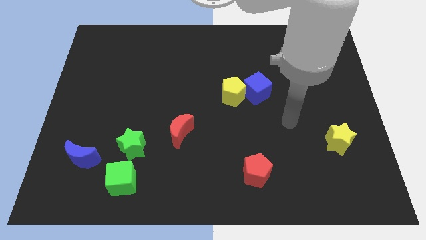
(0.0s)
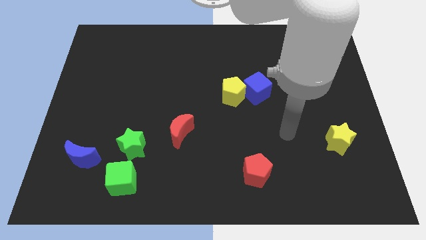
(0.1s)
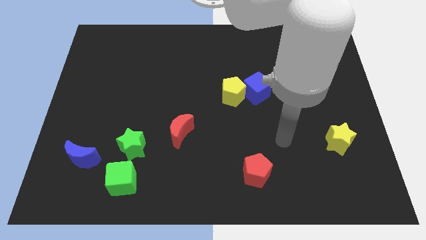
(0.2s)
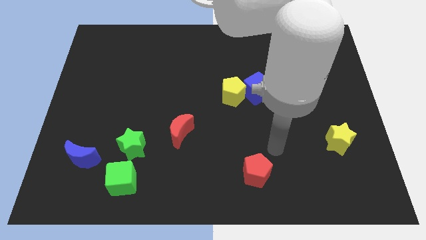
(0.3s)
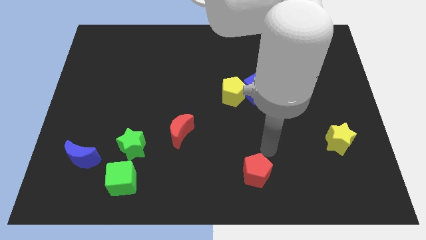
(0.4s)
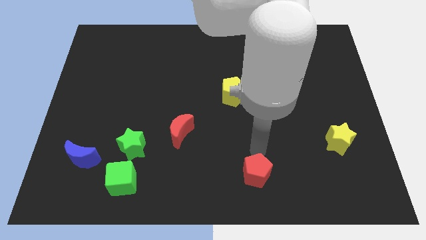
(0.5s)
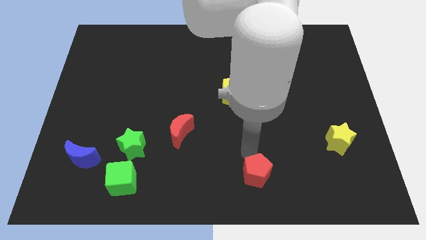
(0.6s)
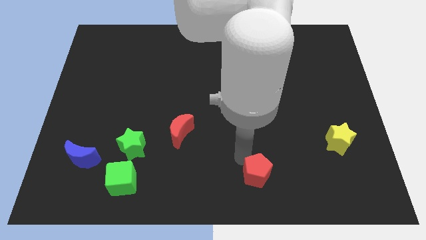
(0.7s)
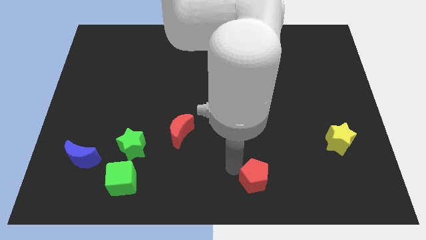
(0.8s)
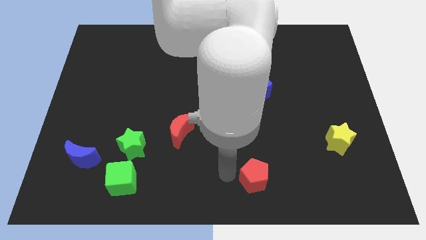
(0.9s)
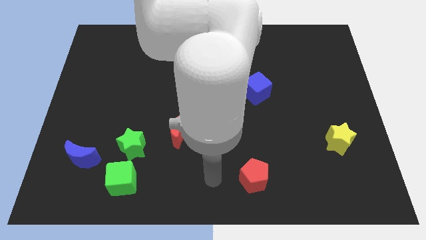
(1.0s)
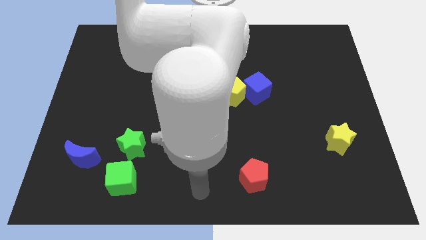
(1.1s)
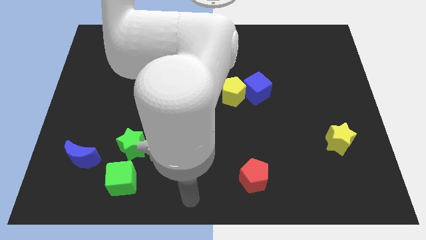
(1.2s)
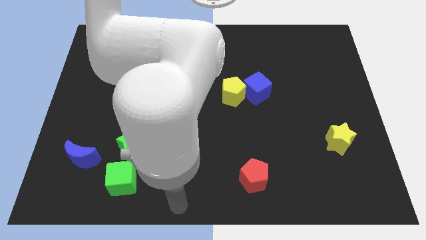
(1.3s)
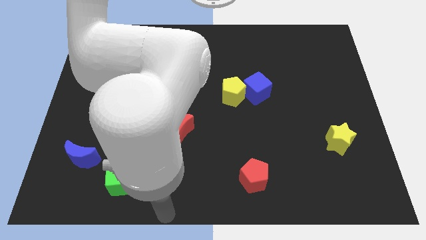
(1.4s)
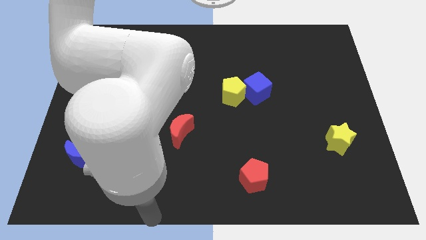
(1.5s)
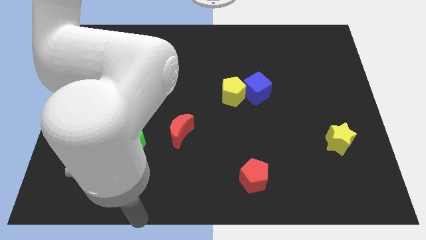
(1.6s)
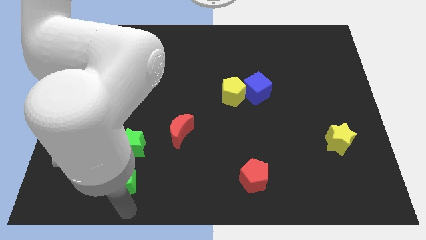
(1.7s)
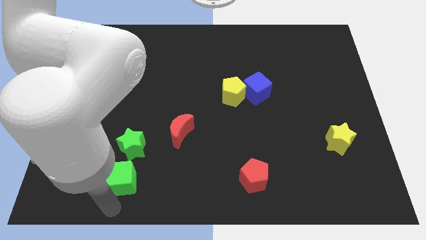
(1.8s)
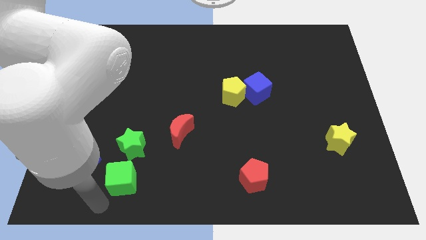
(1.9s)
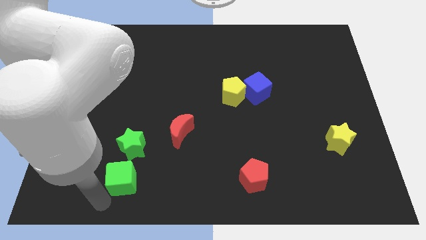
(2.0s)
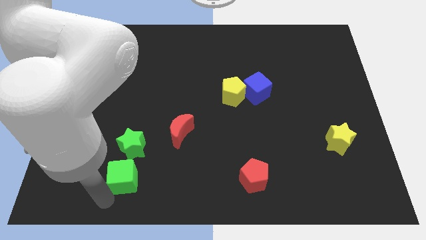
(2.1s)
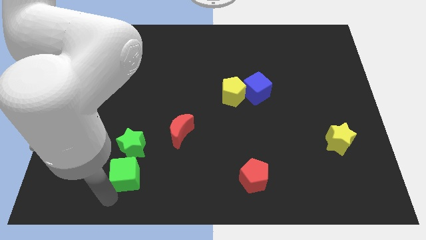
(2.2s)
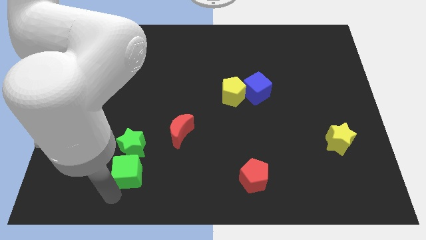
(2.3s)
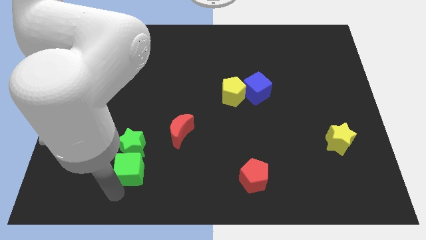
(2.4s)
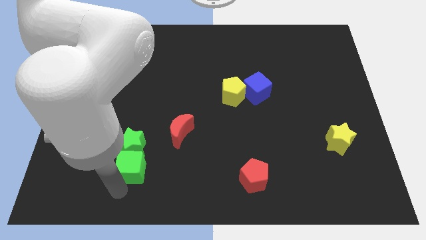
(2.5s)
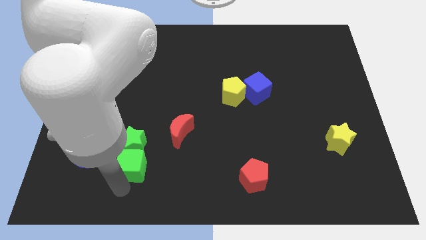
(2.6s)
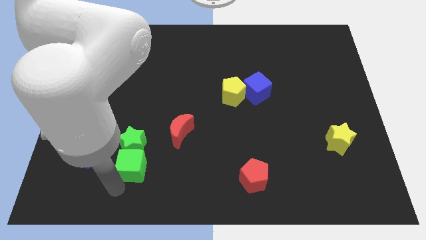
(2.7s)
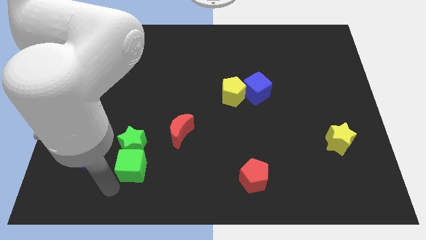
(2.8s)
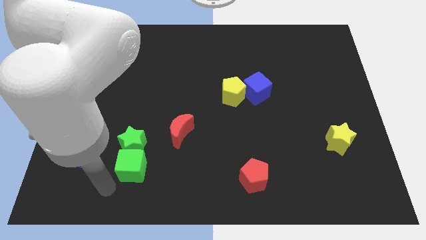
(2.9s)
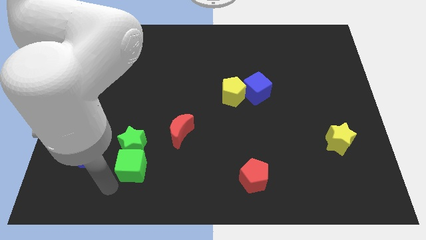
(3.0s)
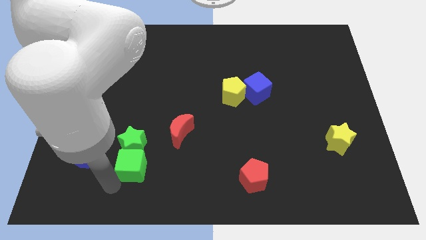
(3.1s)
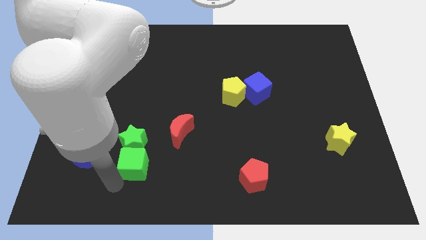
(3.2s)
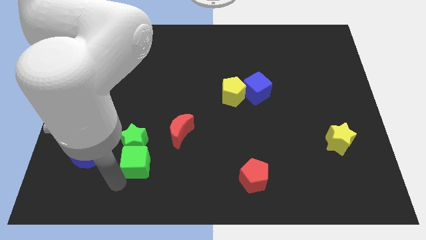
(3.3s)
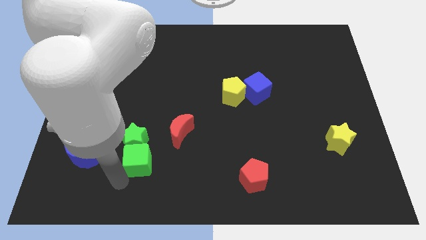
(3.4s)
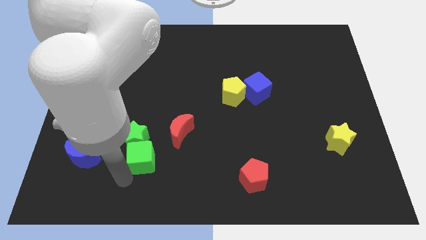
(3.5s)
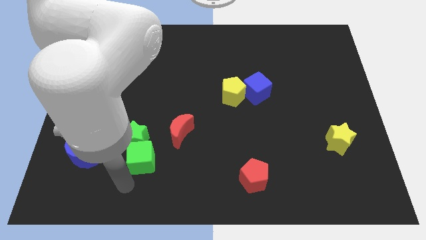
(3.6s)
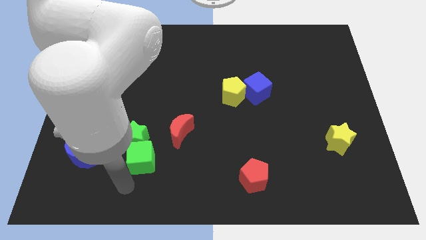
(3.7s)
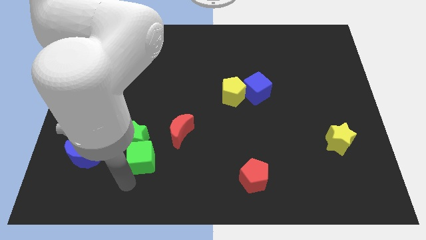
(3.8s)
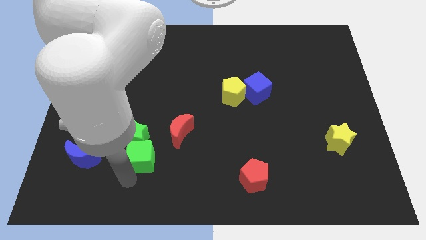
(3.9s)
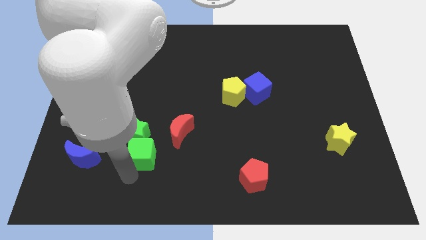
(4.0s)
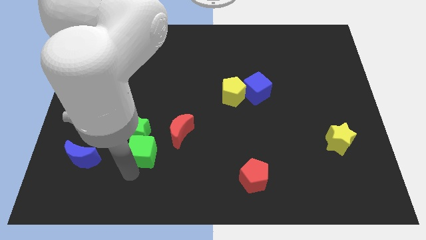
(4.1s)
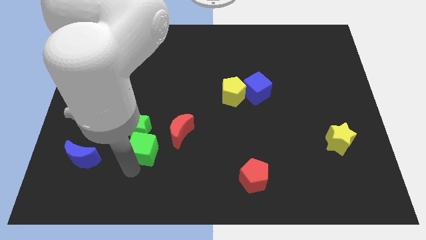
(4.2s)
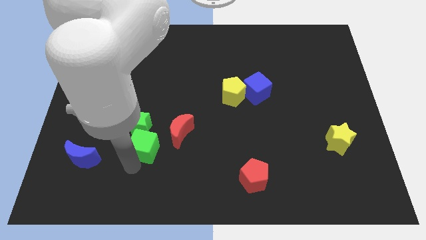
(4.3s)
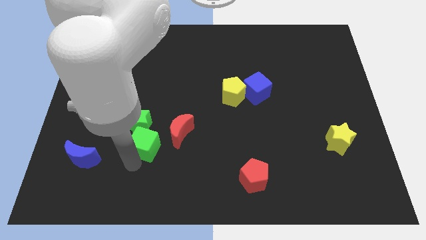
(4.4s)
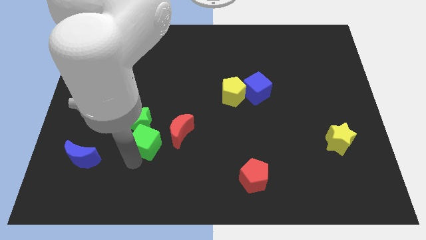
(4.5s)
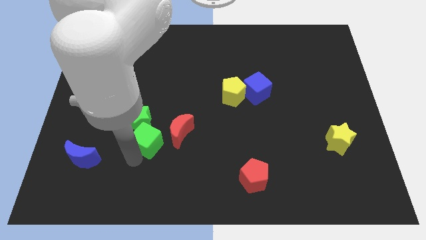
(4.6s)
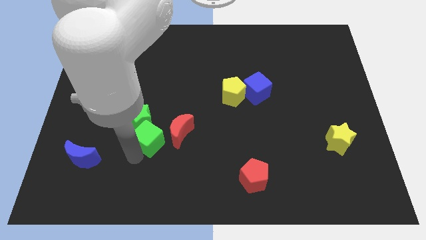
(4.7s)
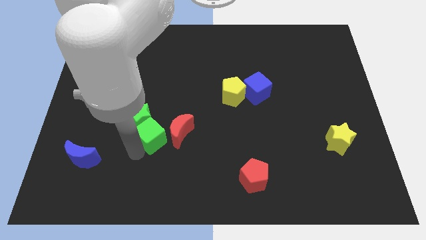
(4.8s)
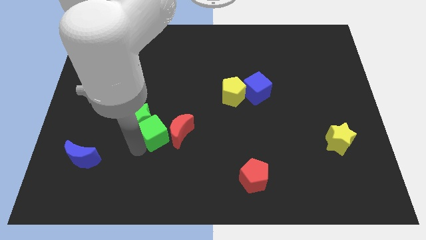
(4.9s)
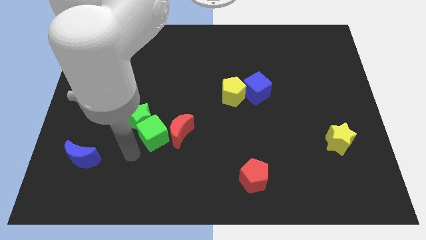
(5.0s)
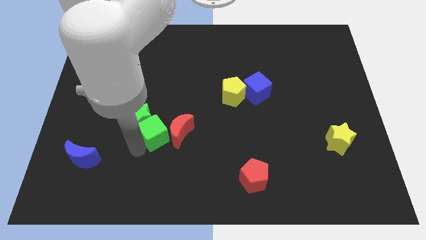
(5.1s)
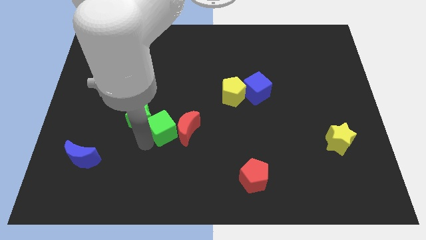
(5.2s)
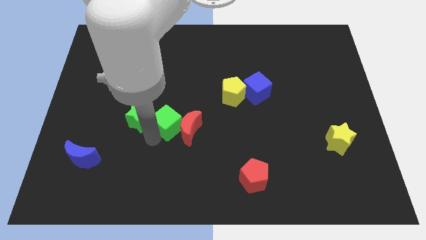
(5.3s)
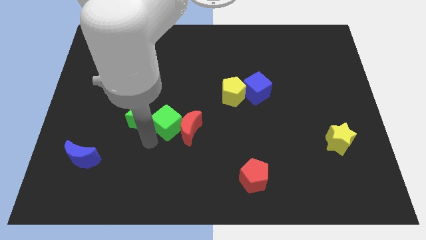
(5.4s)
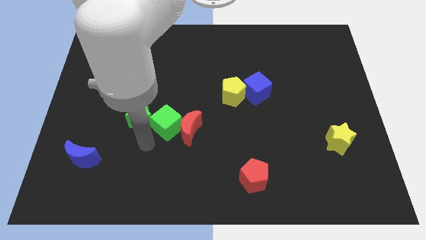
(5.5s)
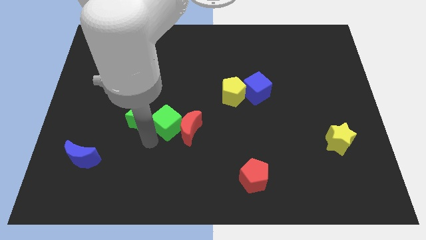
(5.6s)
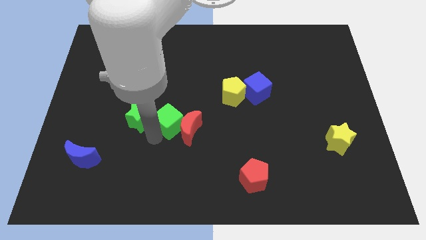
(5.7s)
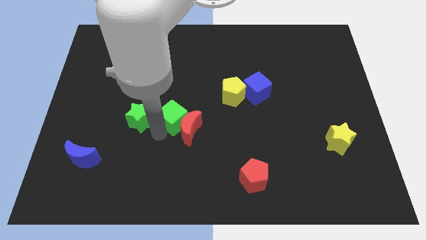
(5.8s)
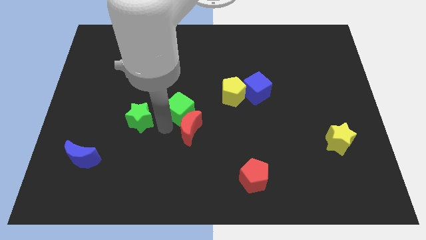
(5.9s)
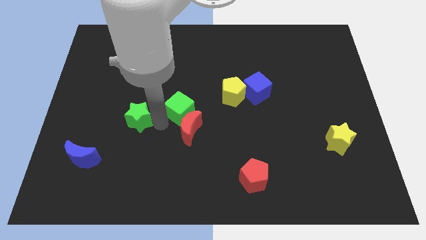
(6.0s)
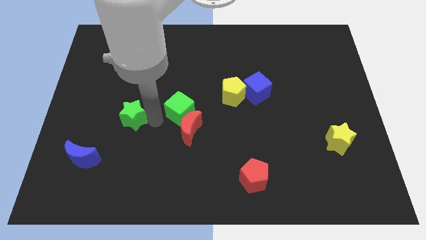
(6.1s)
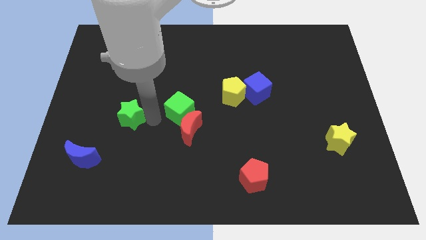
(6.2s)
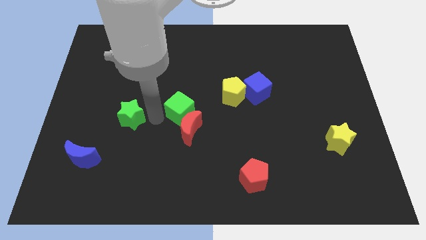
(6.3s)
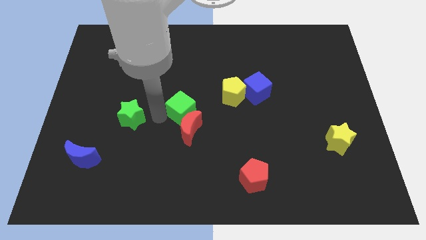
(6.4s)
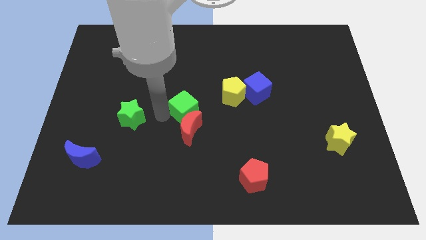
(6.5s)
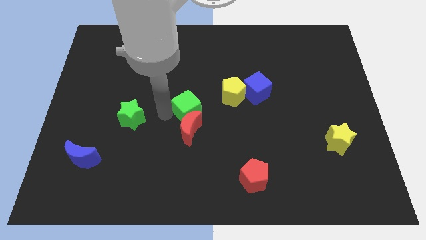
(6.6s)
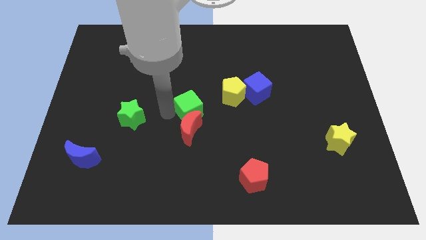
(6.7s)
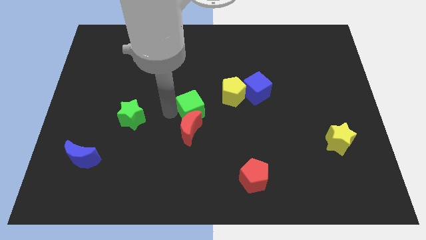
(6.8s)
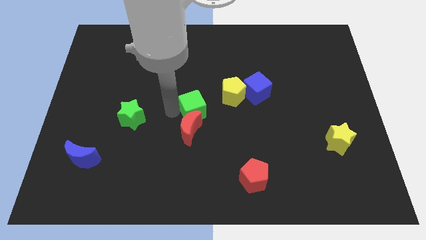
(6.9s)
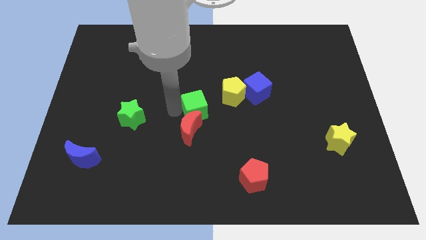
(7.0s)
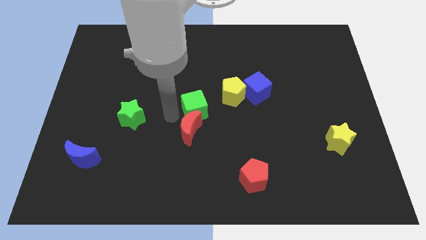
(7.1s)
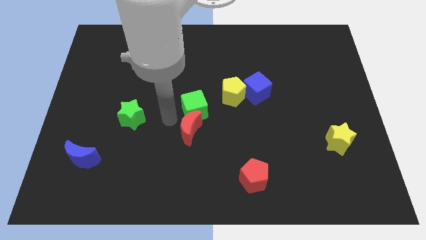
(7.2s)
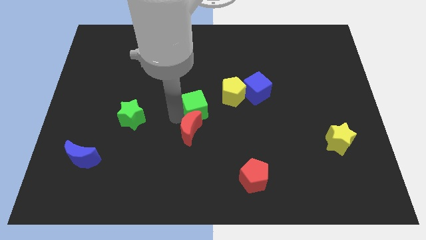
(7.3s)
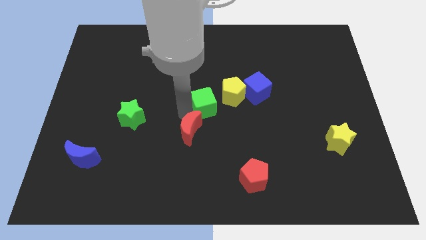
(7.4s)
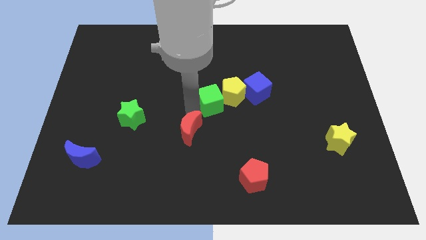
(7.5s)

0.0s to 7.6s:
put the green cube next to the yellow pentagon

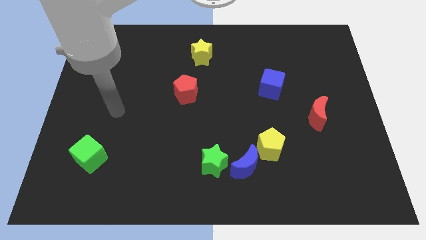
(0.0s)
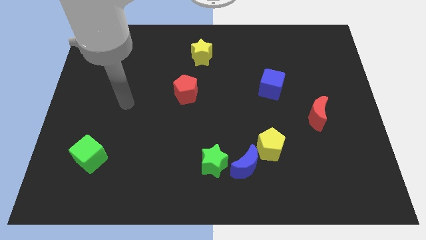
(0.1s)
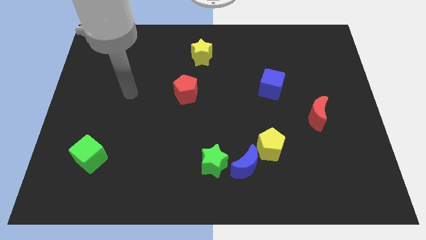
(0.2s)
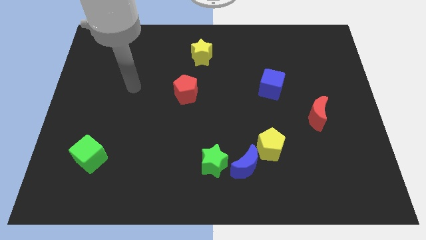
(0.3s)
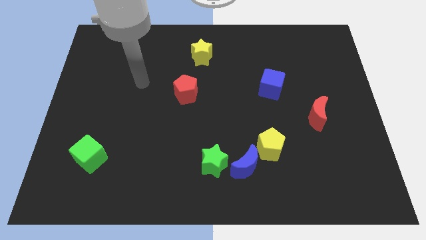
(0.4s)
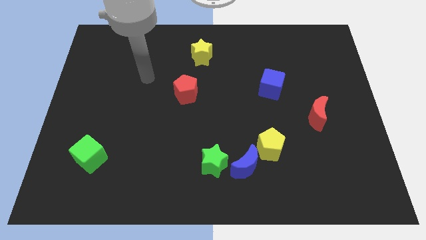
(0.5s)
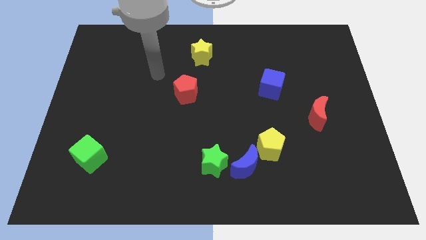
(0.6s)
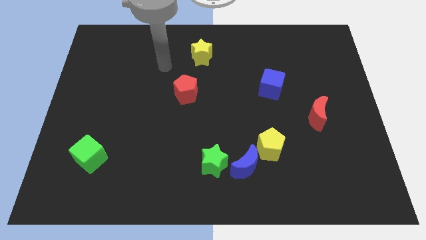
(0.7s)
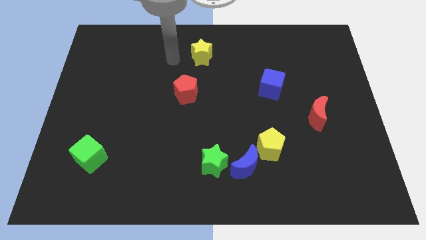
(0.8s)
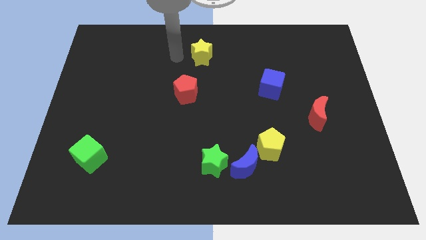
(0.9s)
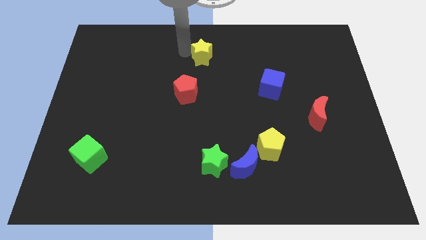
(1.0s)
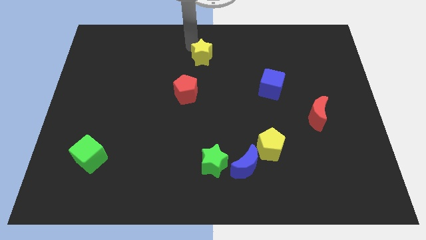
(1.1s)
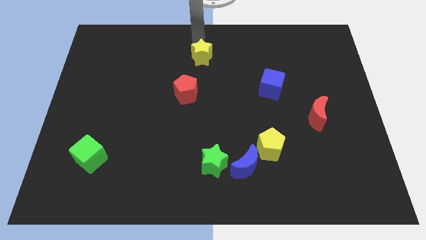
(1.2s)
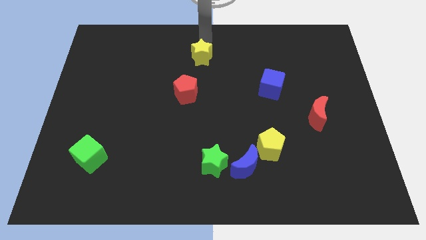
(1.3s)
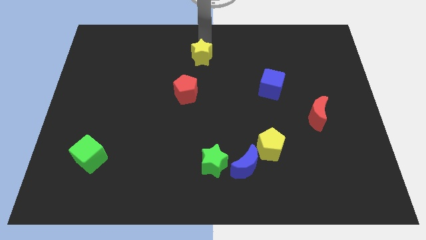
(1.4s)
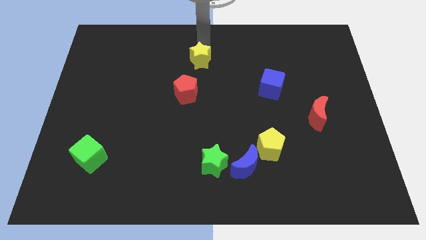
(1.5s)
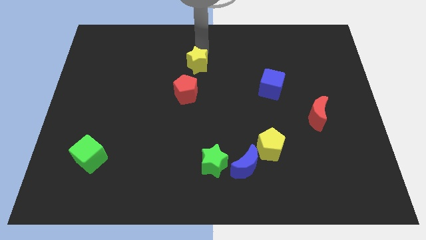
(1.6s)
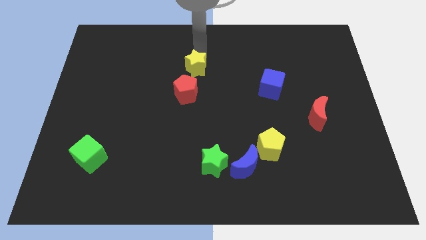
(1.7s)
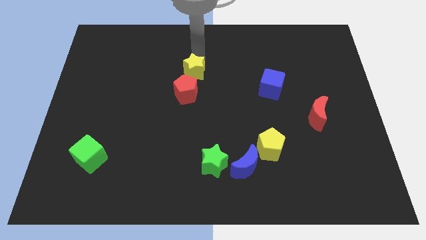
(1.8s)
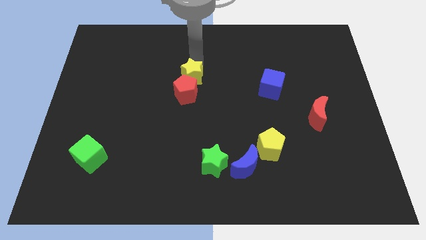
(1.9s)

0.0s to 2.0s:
put the yellow star to the red pentagon
